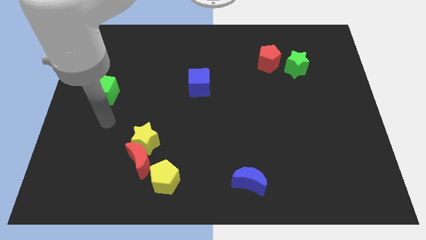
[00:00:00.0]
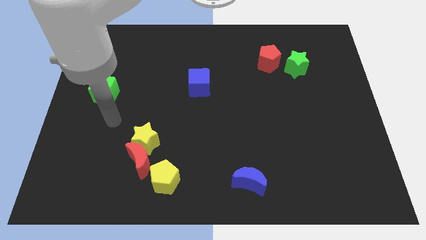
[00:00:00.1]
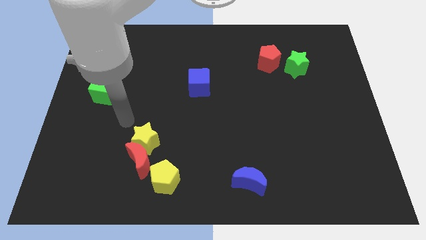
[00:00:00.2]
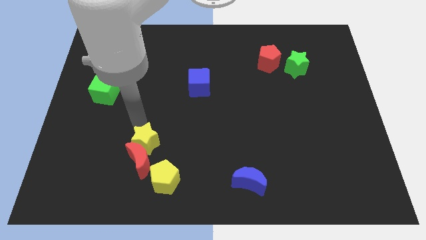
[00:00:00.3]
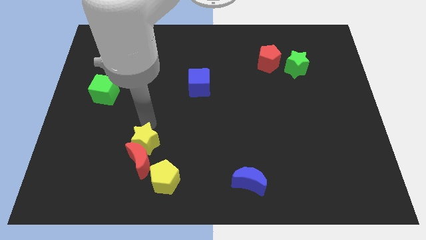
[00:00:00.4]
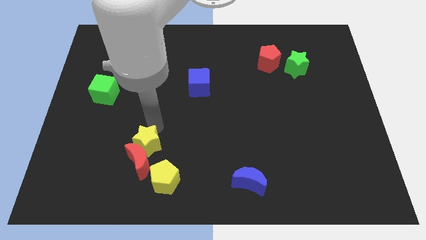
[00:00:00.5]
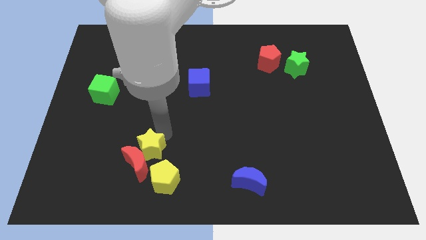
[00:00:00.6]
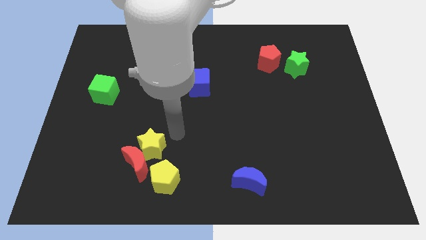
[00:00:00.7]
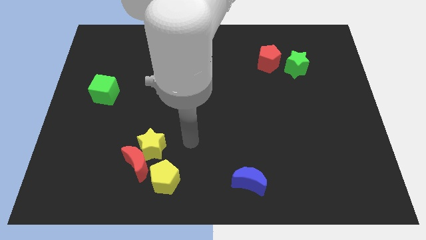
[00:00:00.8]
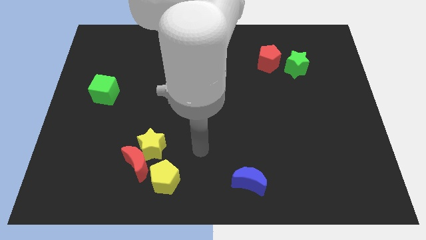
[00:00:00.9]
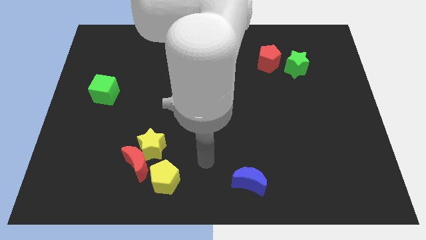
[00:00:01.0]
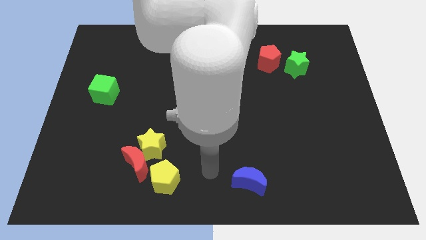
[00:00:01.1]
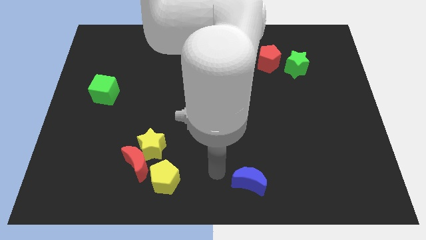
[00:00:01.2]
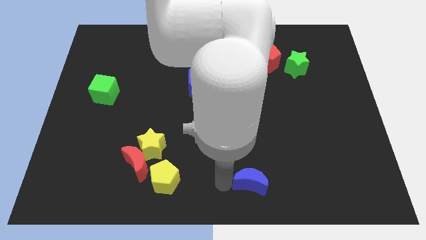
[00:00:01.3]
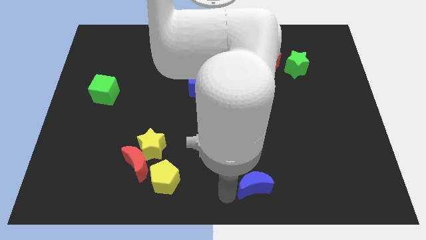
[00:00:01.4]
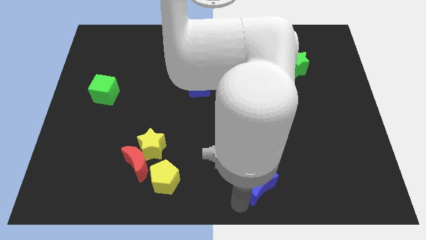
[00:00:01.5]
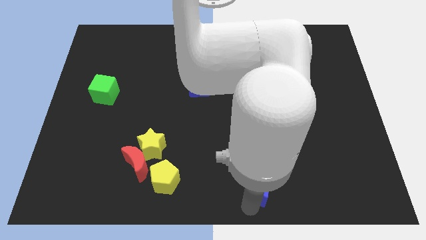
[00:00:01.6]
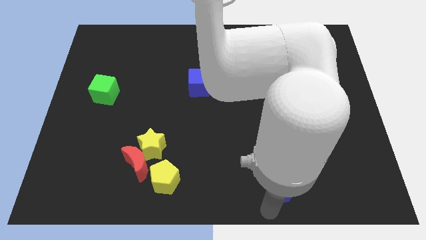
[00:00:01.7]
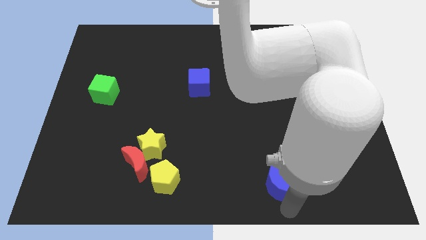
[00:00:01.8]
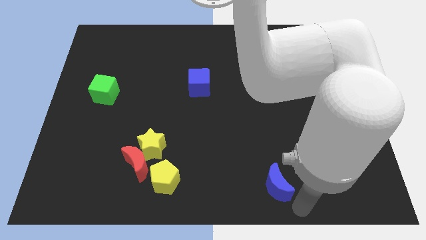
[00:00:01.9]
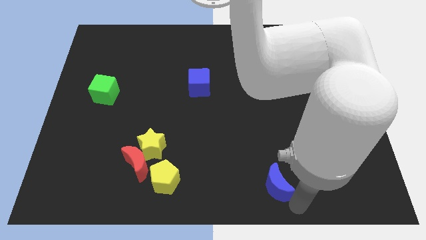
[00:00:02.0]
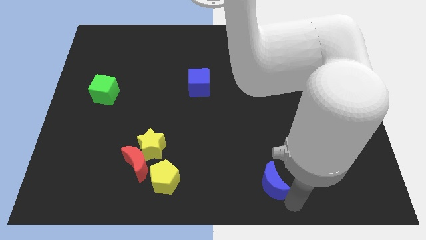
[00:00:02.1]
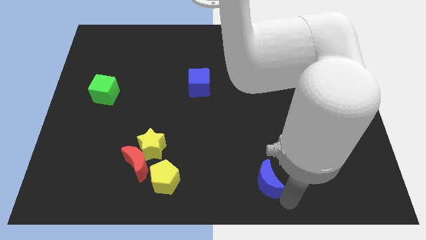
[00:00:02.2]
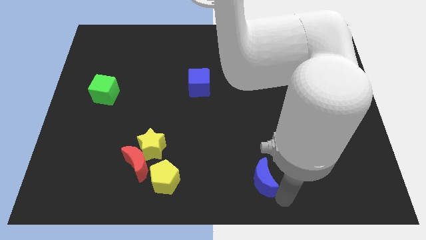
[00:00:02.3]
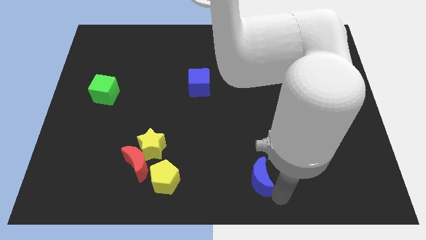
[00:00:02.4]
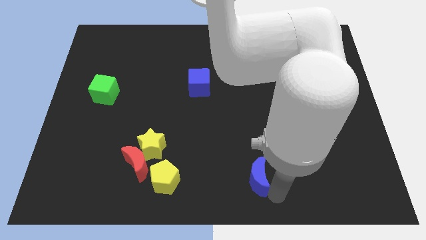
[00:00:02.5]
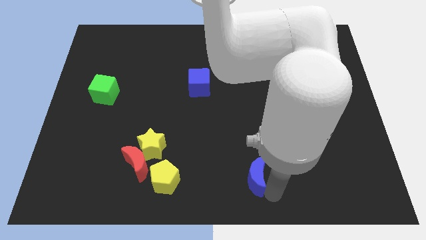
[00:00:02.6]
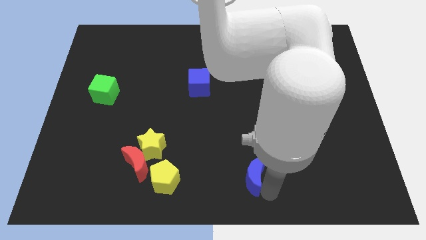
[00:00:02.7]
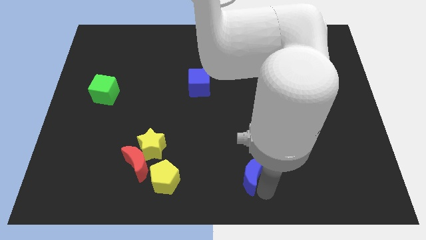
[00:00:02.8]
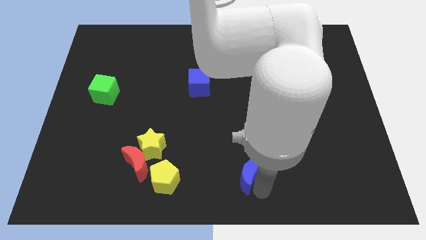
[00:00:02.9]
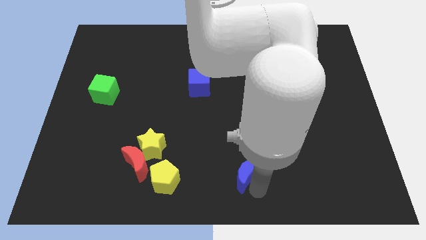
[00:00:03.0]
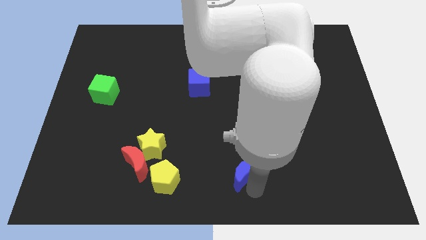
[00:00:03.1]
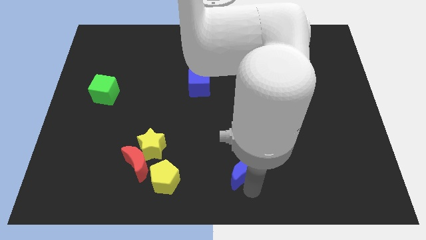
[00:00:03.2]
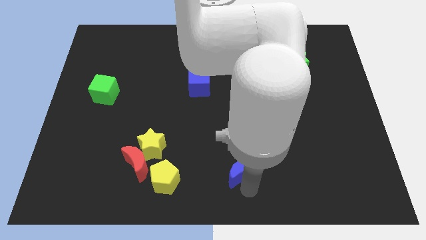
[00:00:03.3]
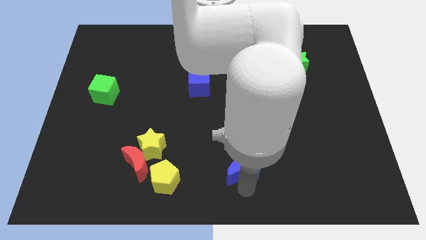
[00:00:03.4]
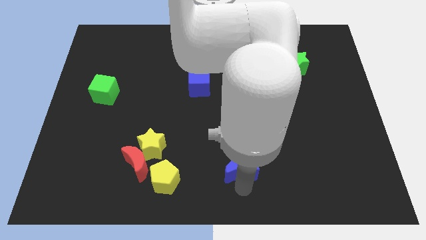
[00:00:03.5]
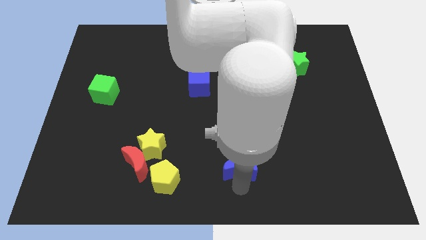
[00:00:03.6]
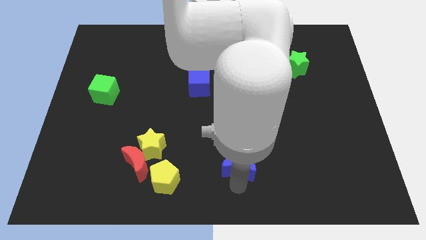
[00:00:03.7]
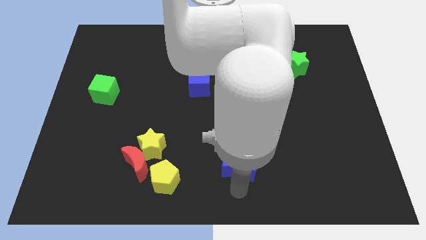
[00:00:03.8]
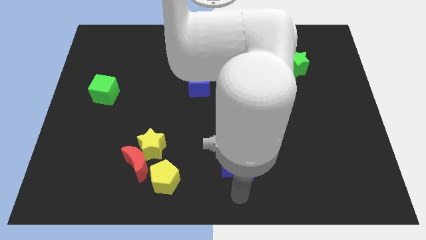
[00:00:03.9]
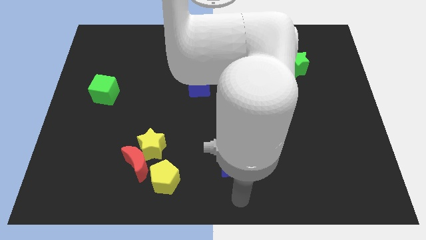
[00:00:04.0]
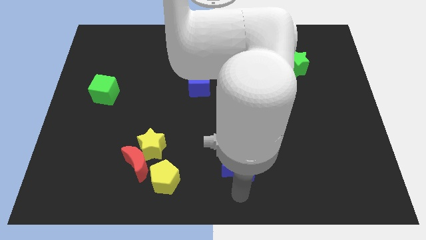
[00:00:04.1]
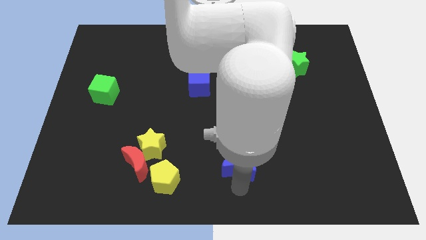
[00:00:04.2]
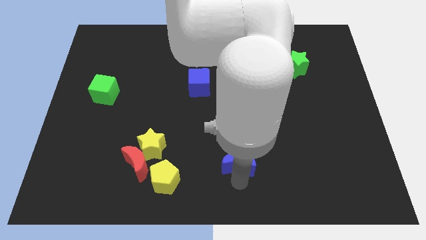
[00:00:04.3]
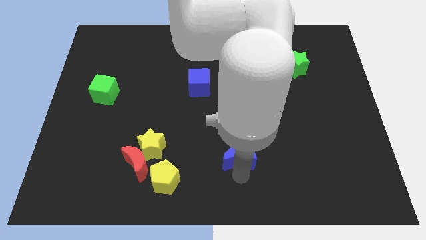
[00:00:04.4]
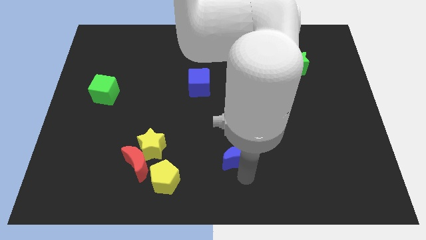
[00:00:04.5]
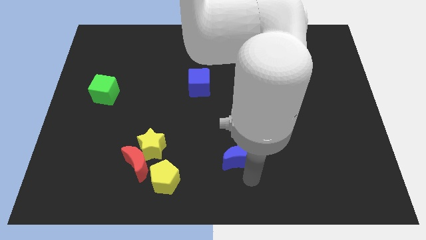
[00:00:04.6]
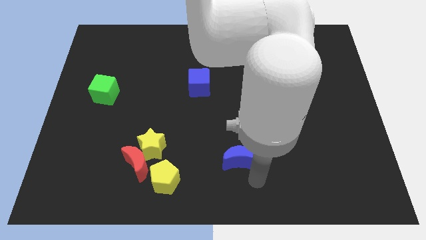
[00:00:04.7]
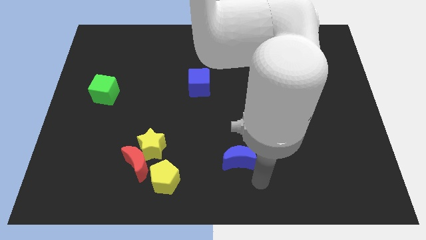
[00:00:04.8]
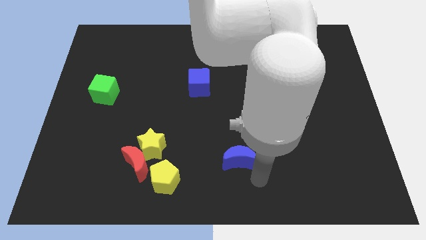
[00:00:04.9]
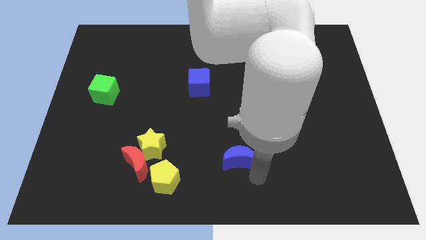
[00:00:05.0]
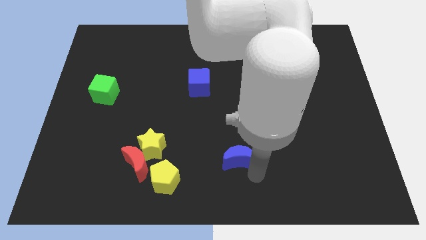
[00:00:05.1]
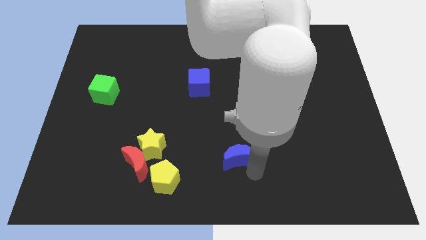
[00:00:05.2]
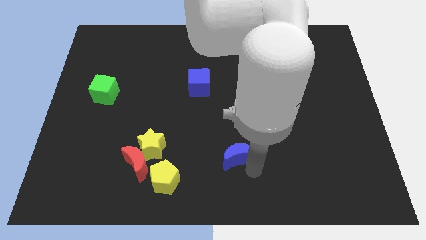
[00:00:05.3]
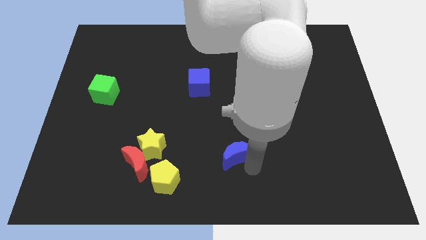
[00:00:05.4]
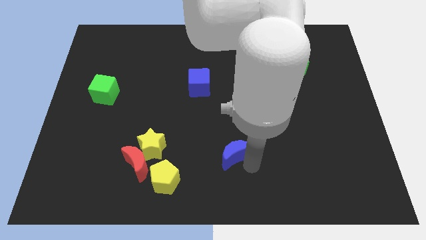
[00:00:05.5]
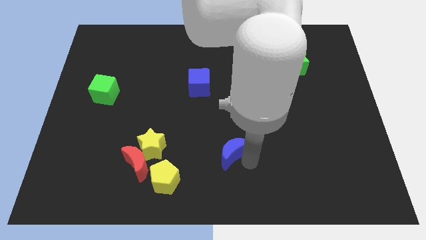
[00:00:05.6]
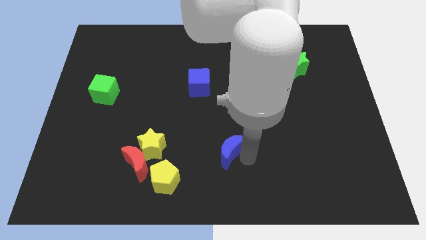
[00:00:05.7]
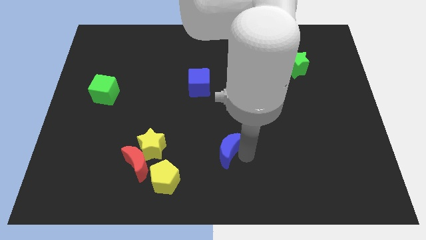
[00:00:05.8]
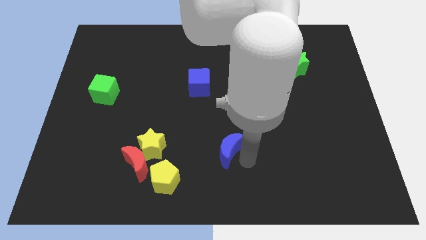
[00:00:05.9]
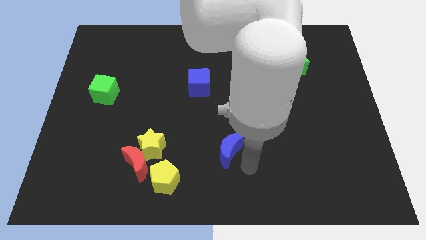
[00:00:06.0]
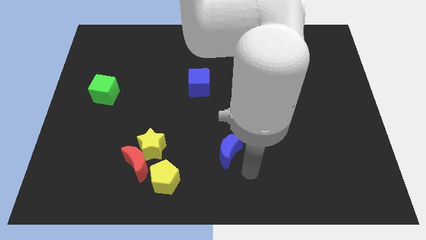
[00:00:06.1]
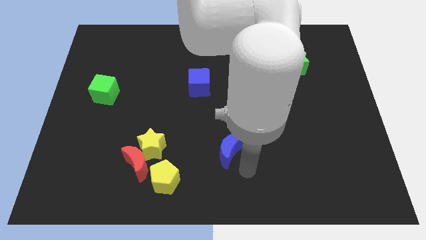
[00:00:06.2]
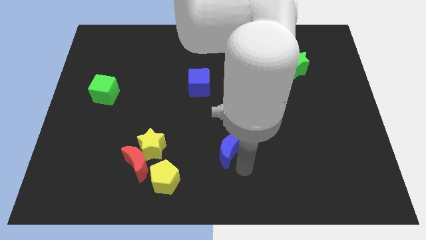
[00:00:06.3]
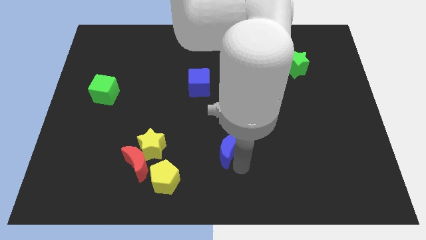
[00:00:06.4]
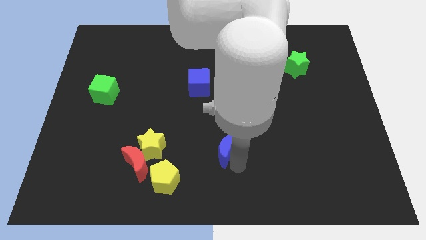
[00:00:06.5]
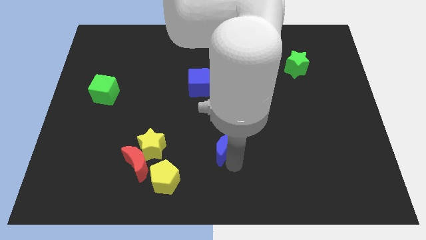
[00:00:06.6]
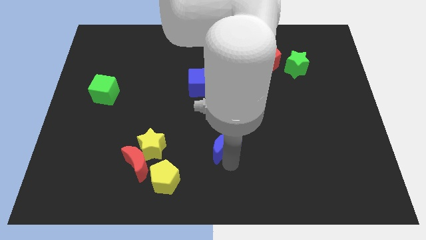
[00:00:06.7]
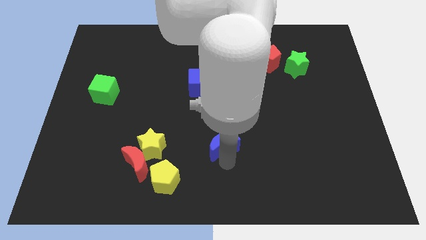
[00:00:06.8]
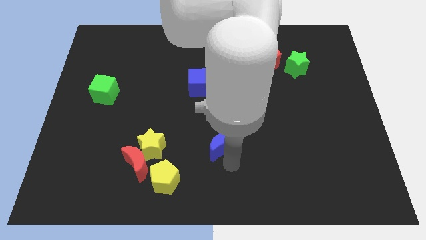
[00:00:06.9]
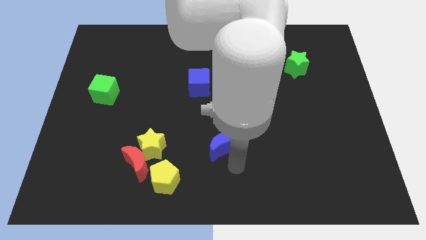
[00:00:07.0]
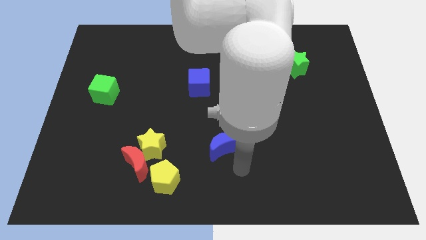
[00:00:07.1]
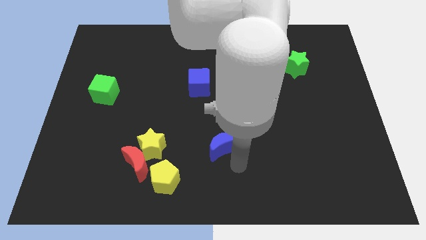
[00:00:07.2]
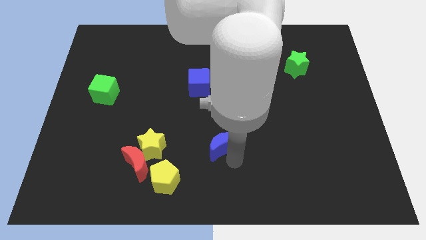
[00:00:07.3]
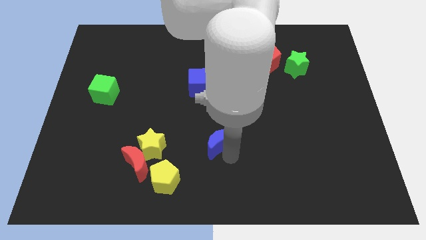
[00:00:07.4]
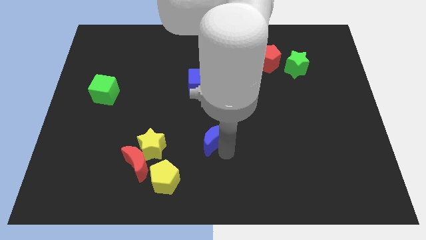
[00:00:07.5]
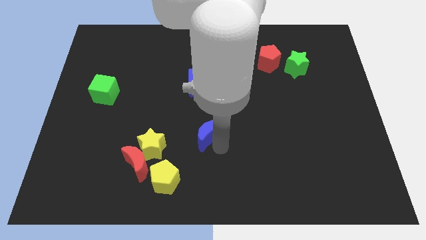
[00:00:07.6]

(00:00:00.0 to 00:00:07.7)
push the blue moon to the bottom side of the blue cube
